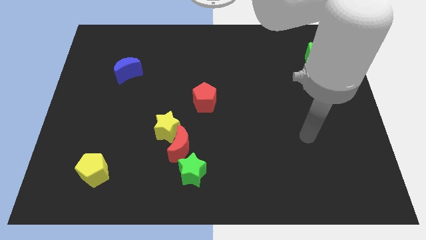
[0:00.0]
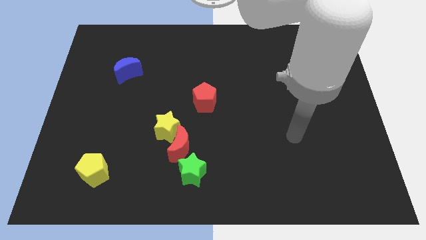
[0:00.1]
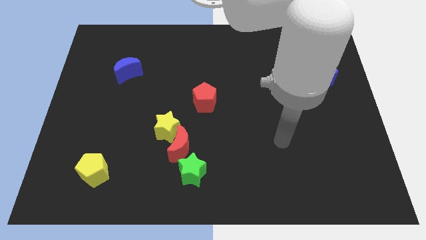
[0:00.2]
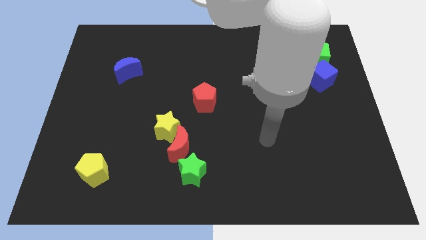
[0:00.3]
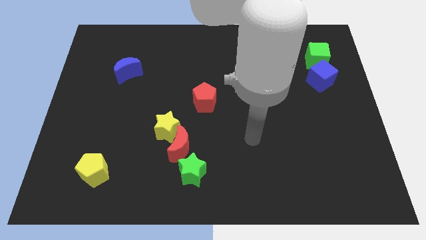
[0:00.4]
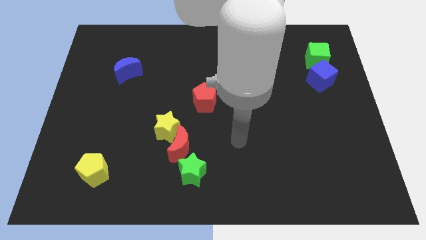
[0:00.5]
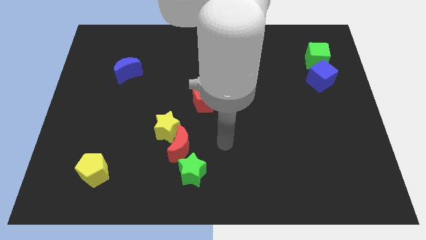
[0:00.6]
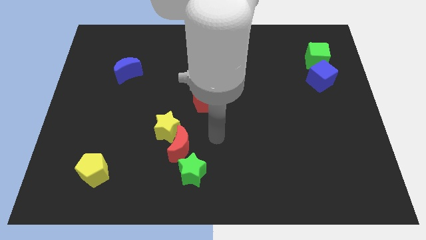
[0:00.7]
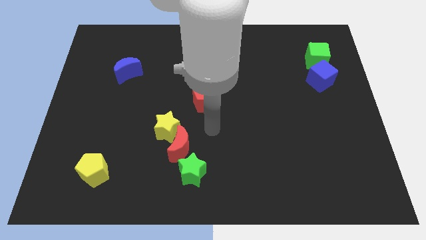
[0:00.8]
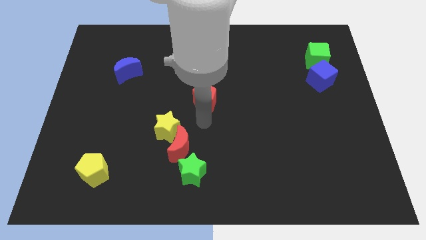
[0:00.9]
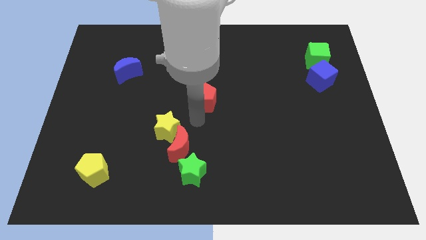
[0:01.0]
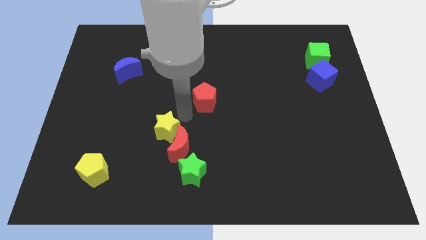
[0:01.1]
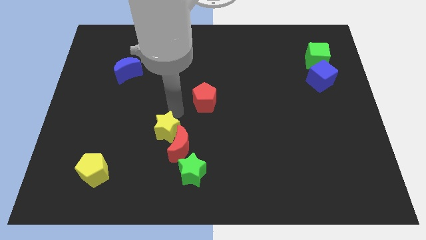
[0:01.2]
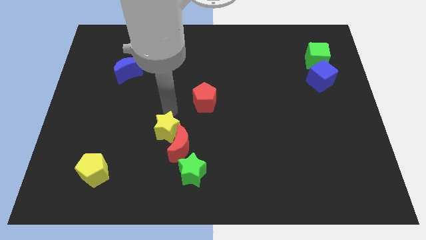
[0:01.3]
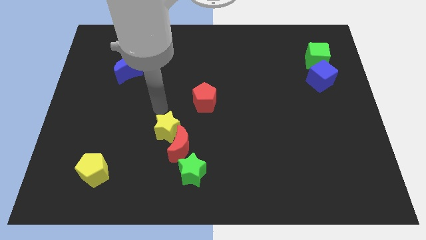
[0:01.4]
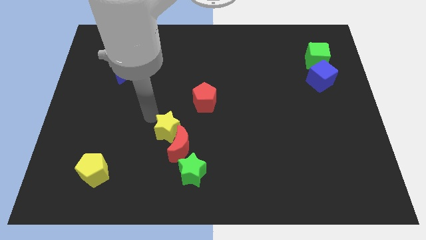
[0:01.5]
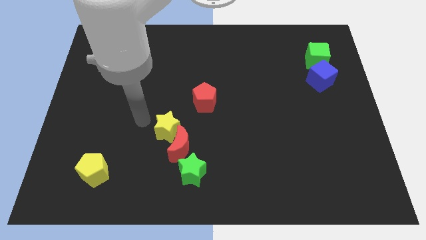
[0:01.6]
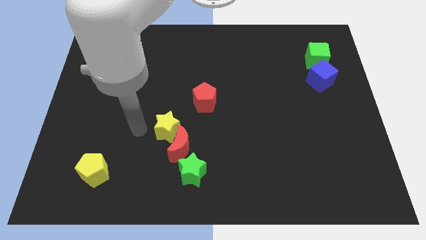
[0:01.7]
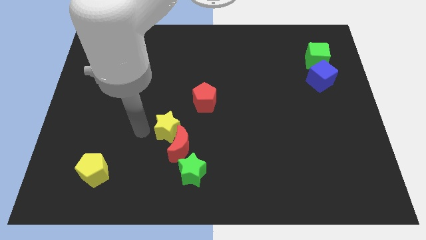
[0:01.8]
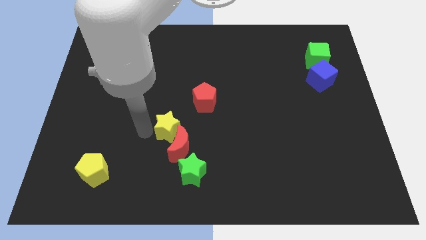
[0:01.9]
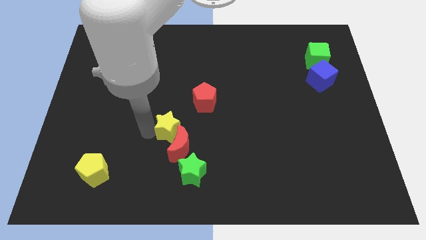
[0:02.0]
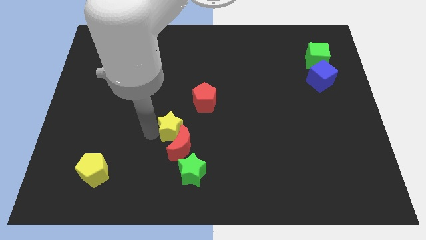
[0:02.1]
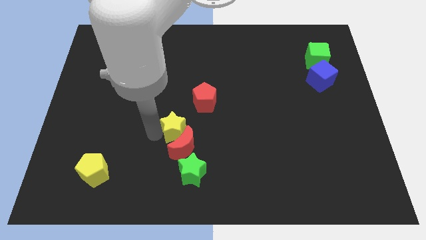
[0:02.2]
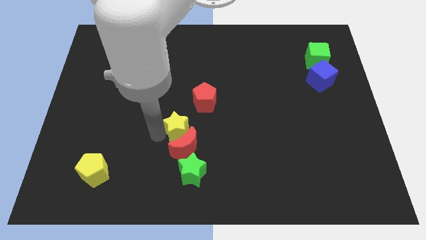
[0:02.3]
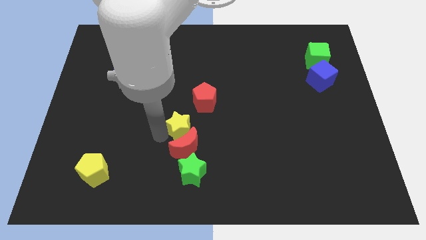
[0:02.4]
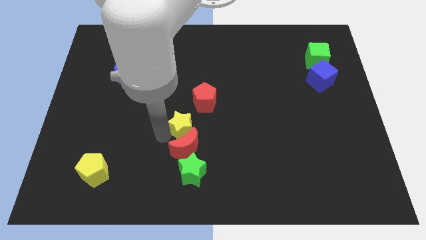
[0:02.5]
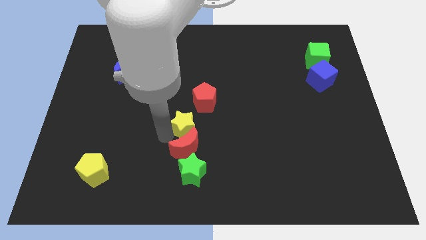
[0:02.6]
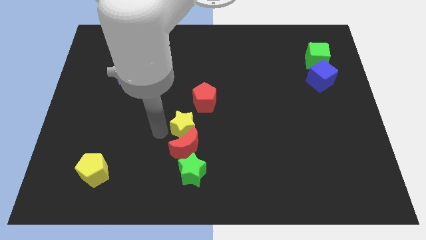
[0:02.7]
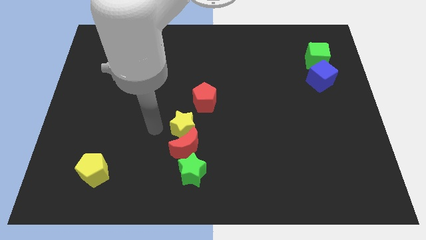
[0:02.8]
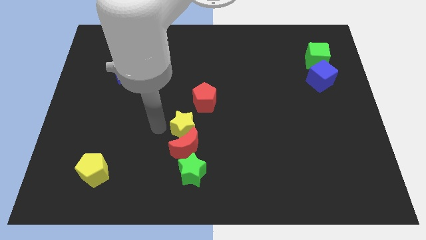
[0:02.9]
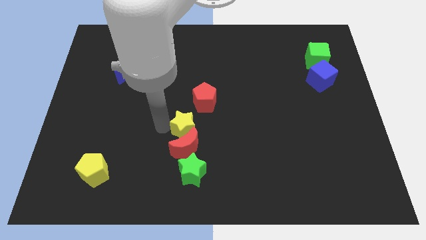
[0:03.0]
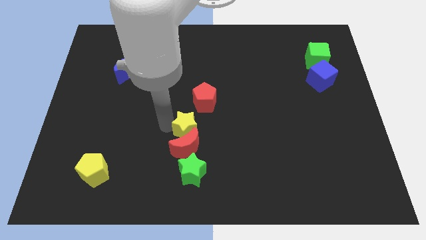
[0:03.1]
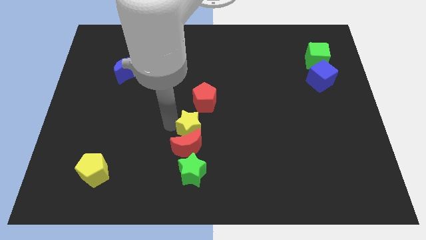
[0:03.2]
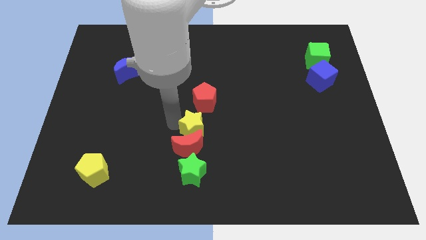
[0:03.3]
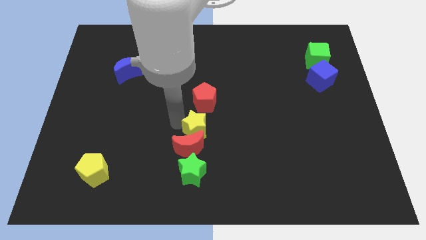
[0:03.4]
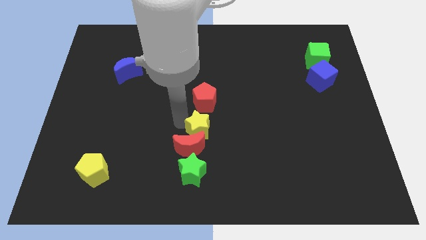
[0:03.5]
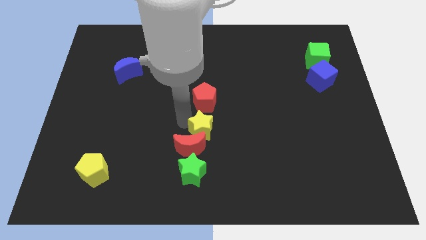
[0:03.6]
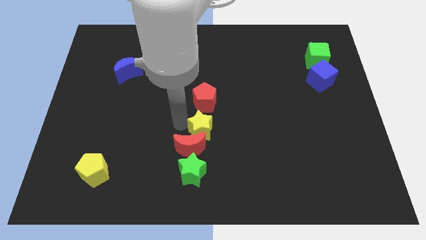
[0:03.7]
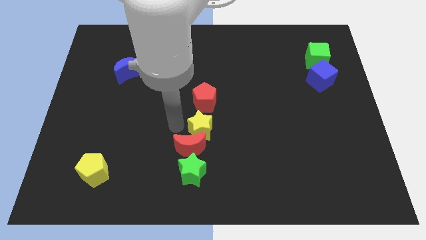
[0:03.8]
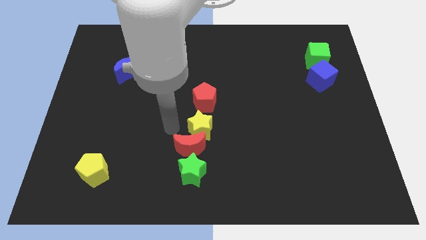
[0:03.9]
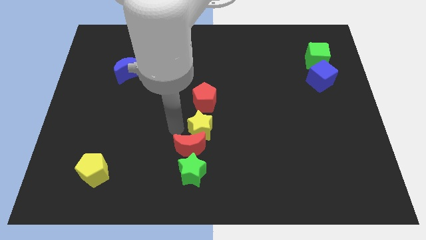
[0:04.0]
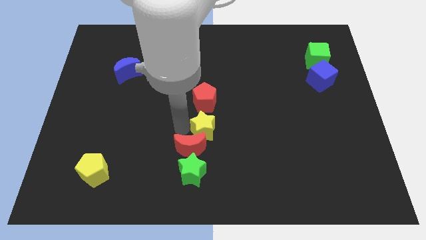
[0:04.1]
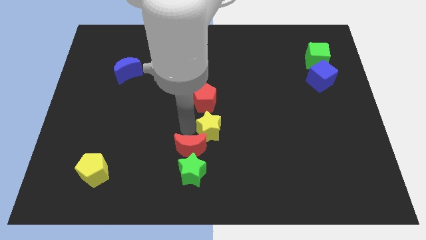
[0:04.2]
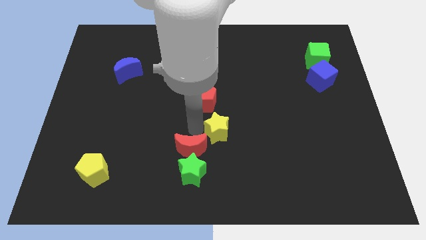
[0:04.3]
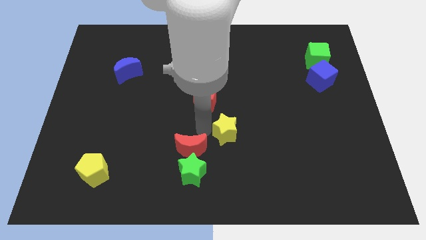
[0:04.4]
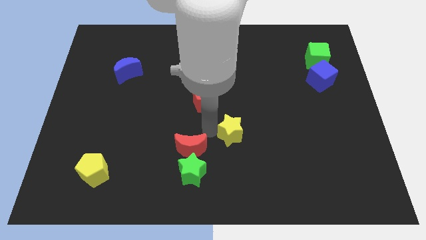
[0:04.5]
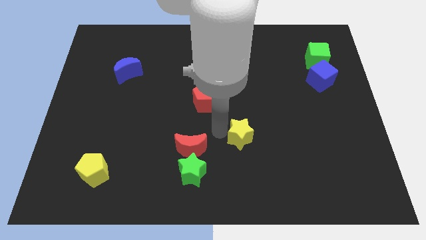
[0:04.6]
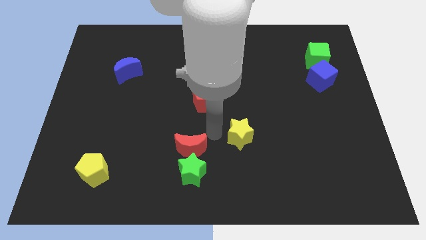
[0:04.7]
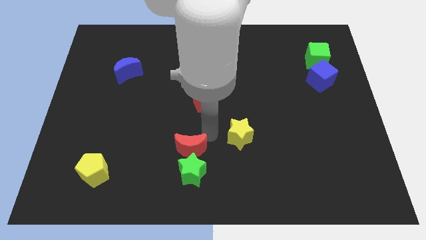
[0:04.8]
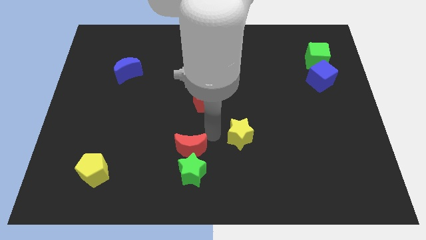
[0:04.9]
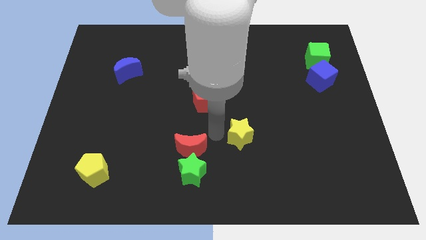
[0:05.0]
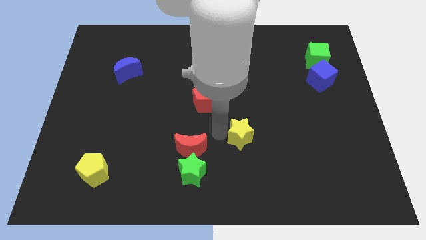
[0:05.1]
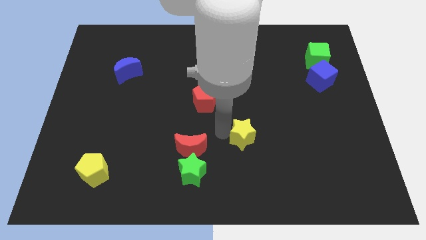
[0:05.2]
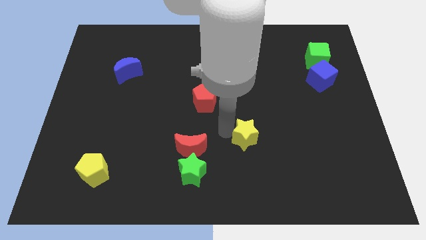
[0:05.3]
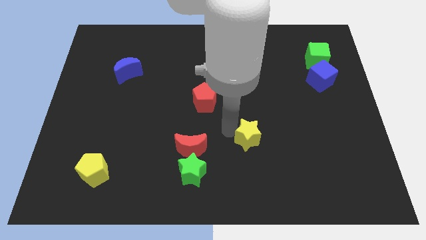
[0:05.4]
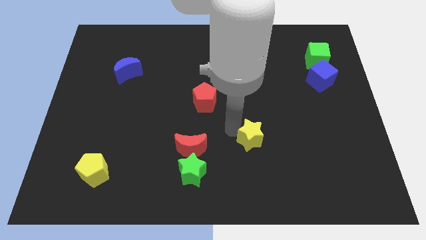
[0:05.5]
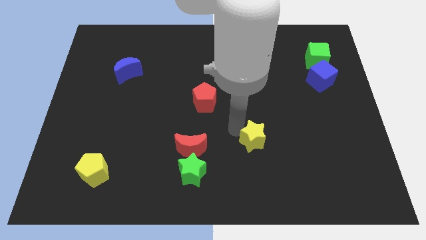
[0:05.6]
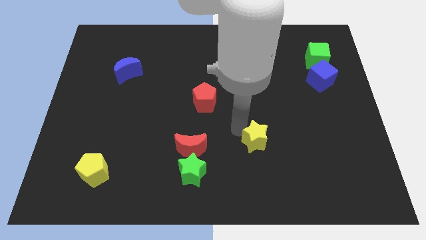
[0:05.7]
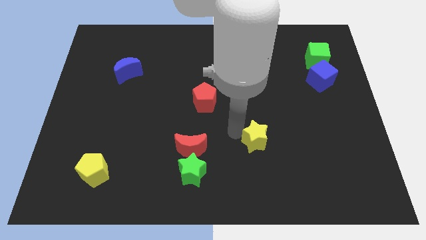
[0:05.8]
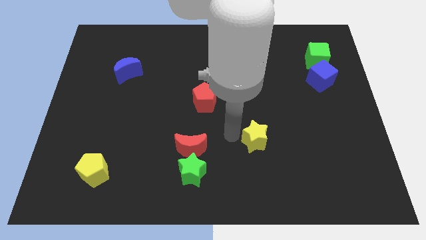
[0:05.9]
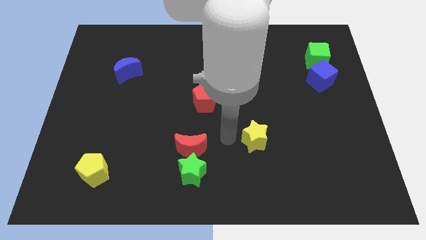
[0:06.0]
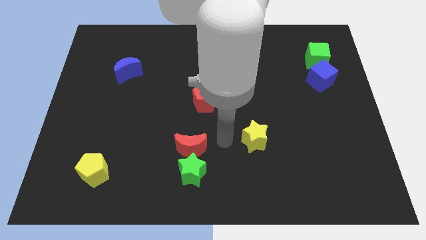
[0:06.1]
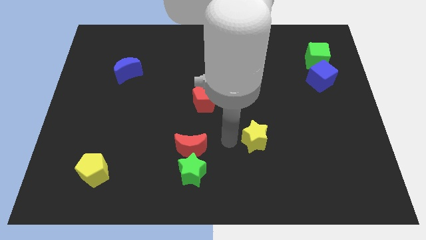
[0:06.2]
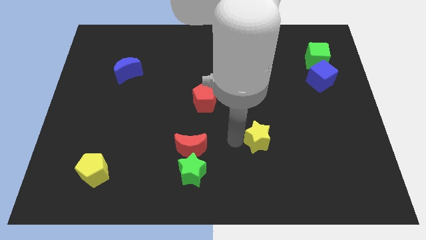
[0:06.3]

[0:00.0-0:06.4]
move the yellow star to the right

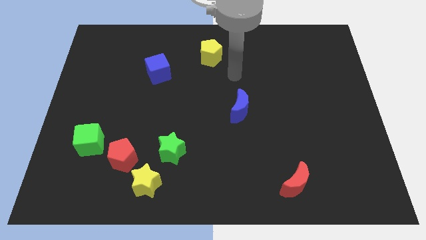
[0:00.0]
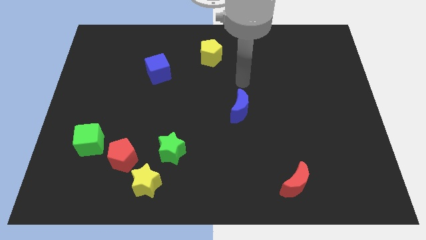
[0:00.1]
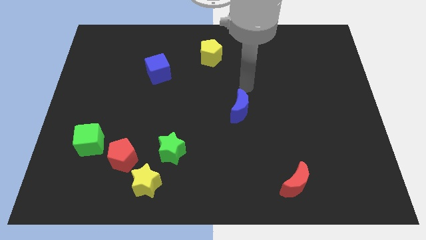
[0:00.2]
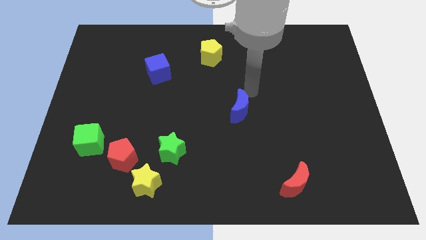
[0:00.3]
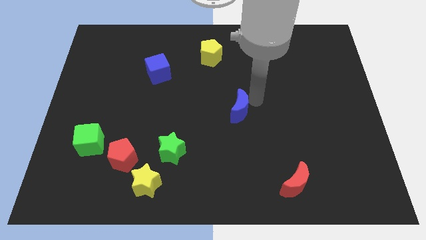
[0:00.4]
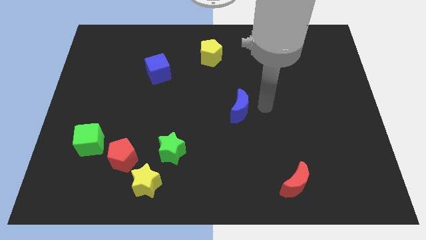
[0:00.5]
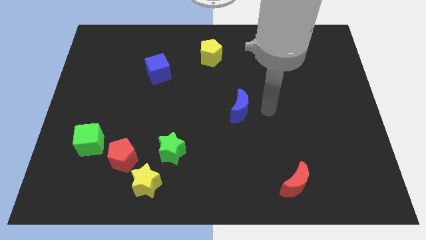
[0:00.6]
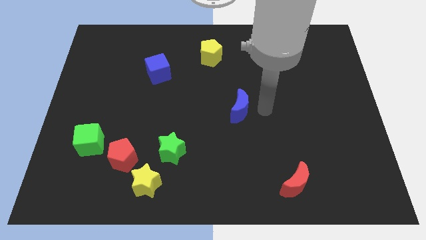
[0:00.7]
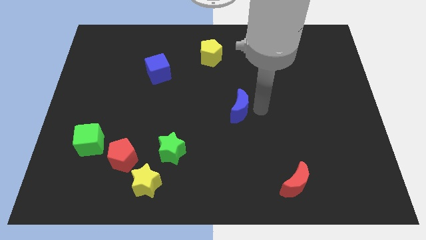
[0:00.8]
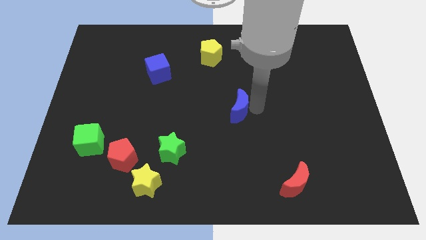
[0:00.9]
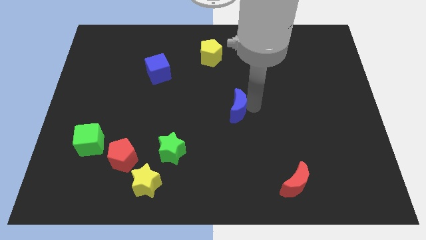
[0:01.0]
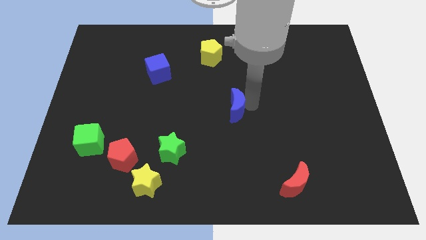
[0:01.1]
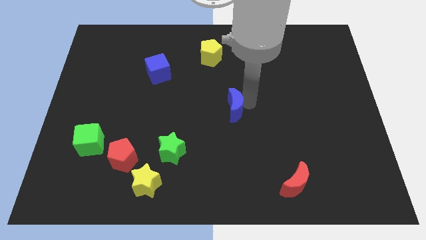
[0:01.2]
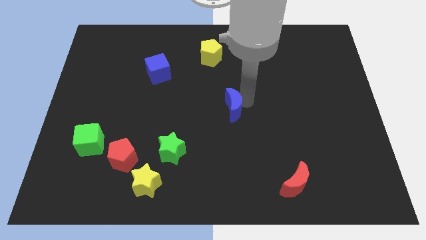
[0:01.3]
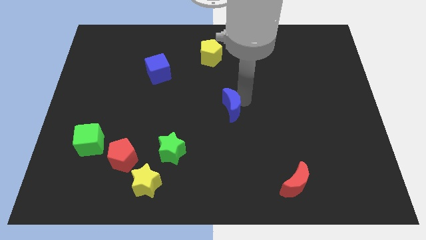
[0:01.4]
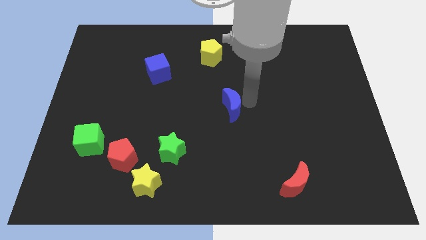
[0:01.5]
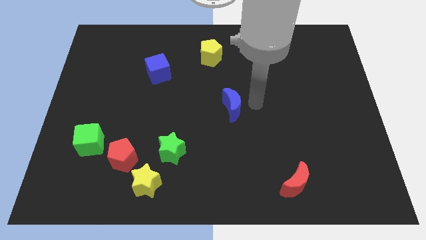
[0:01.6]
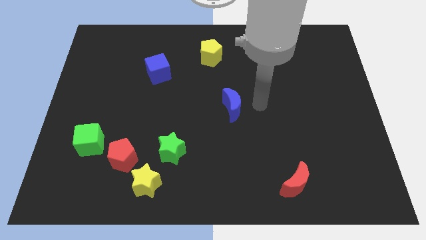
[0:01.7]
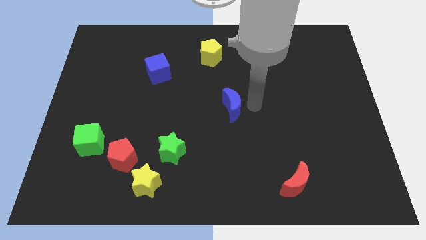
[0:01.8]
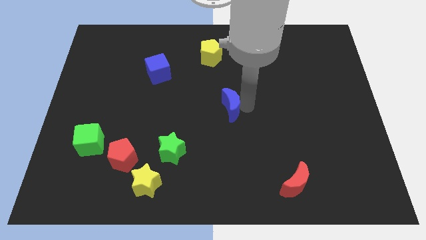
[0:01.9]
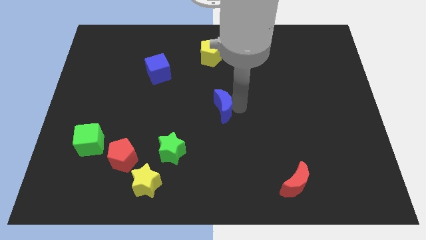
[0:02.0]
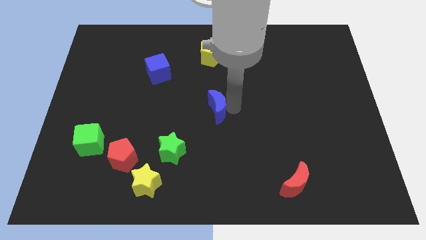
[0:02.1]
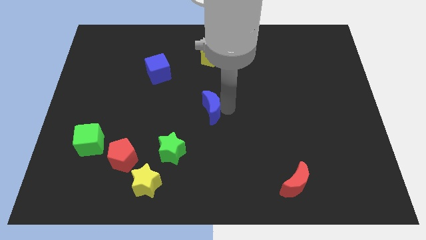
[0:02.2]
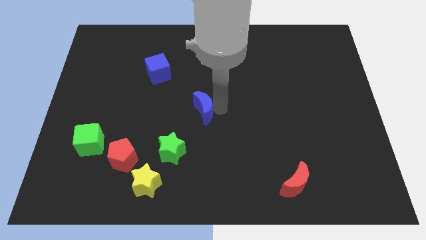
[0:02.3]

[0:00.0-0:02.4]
push the blue moon a bit to the left
